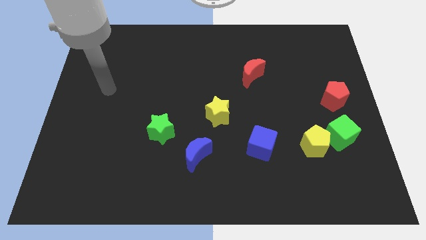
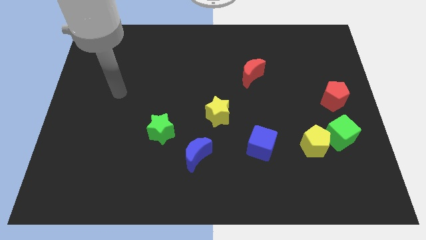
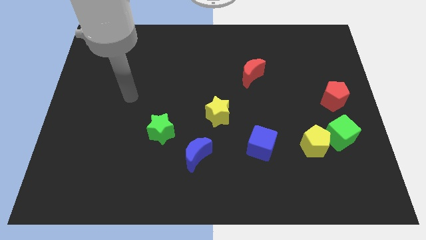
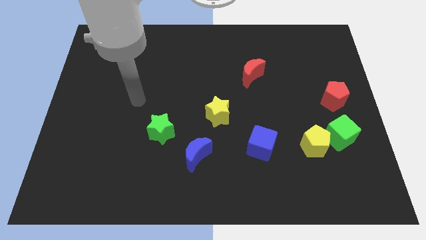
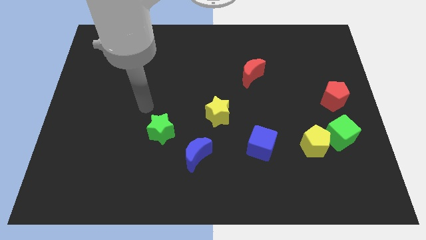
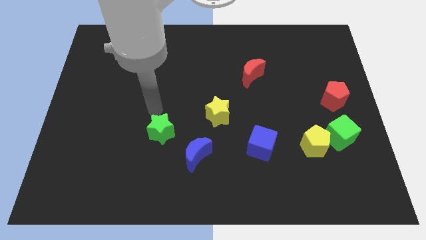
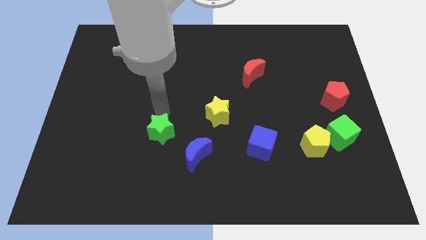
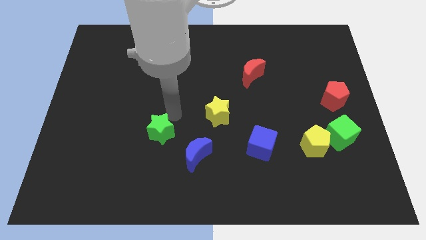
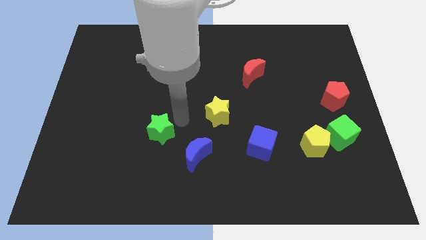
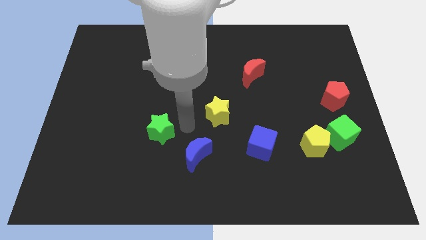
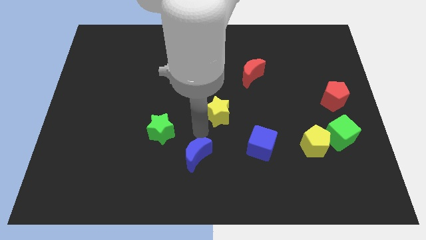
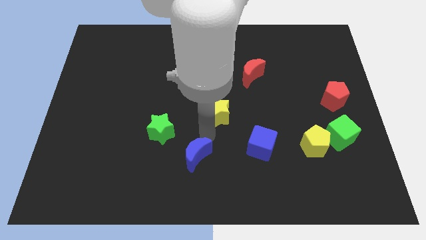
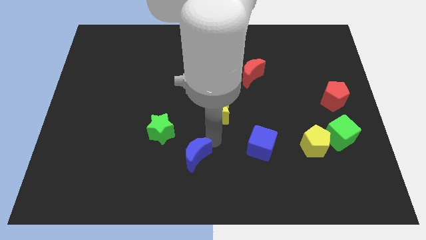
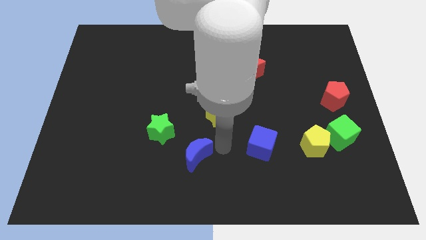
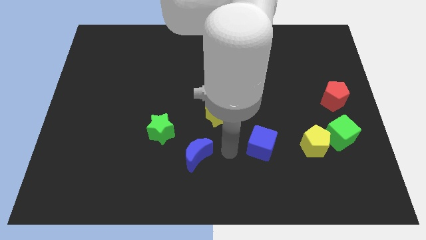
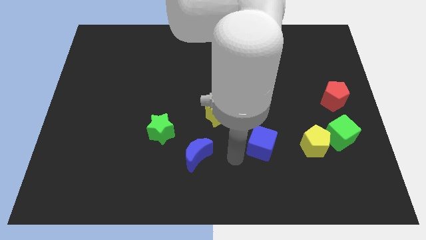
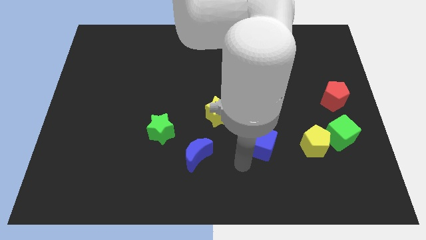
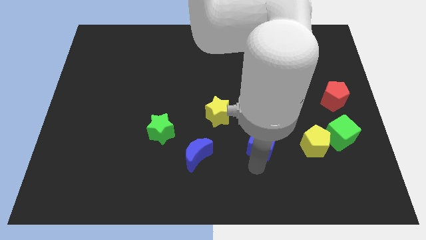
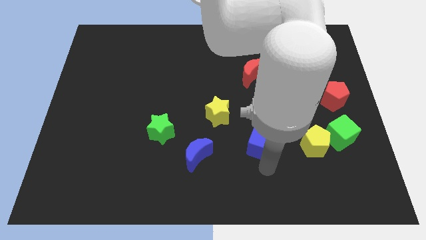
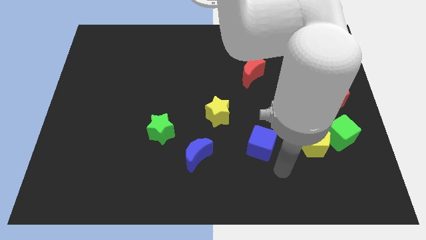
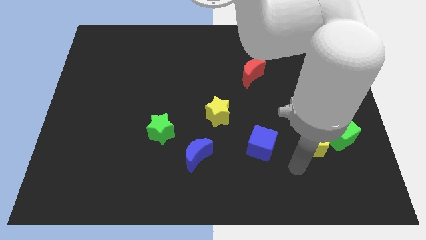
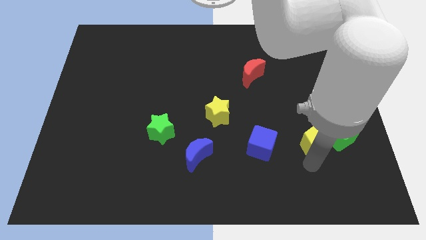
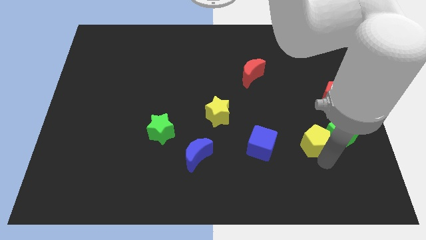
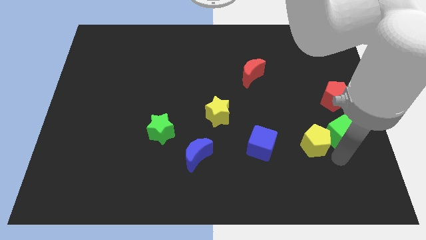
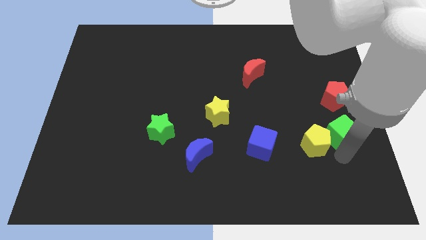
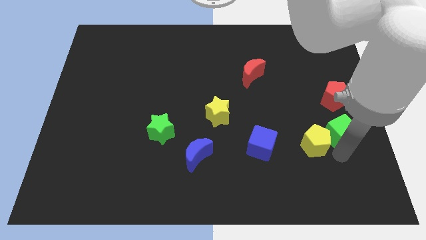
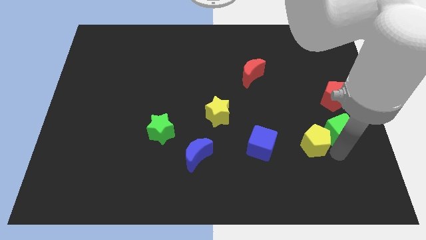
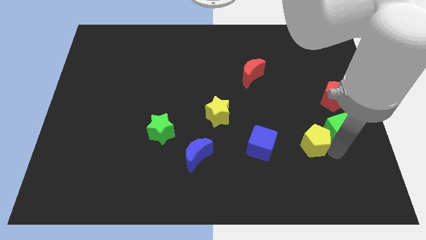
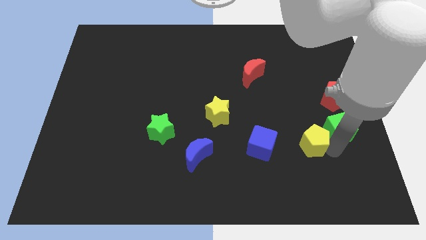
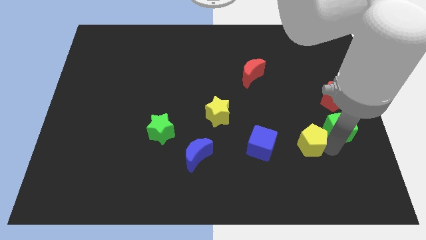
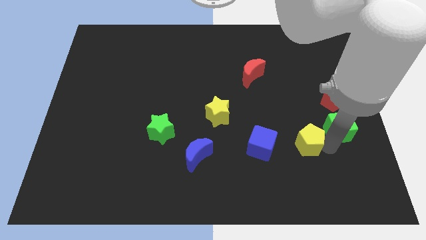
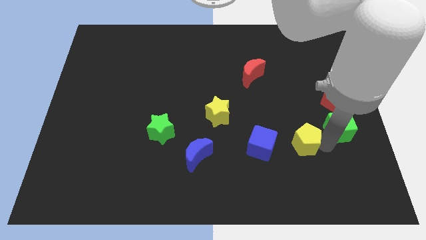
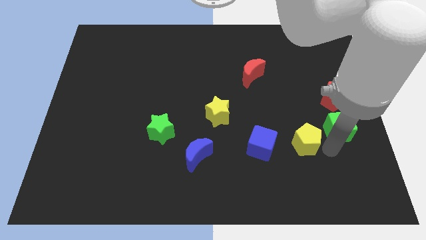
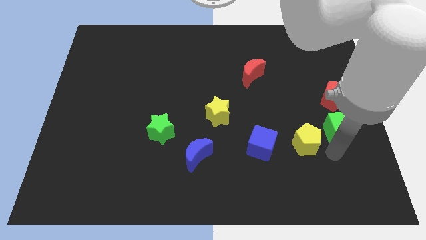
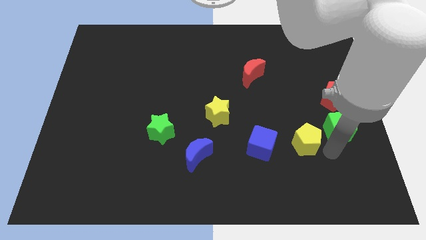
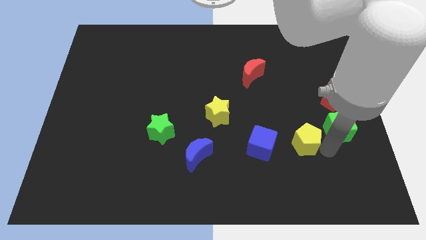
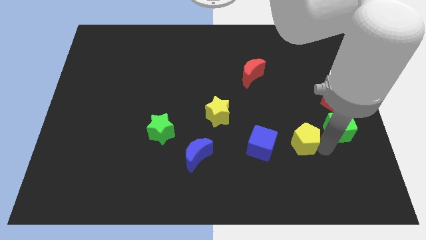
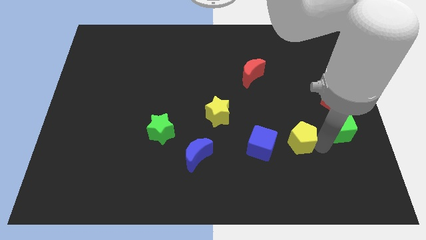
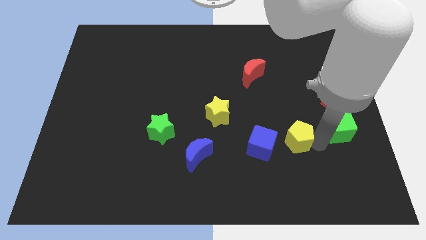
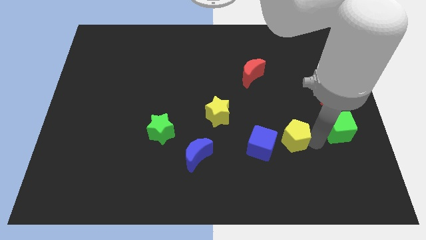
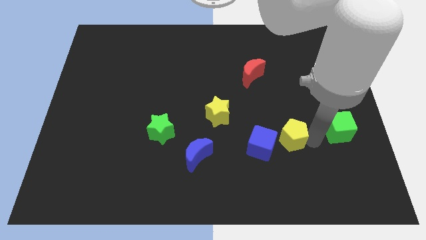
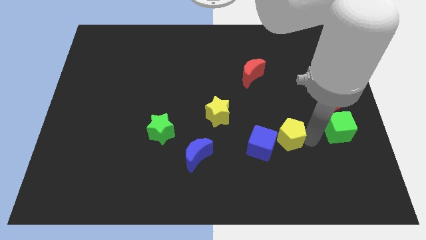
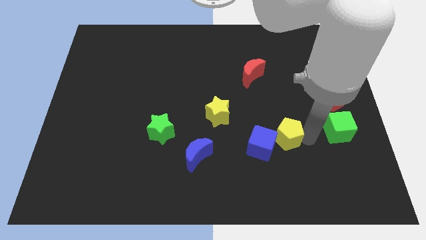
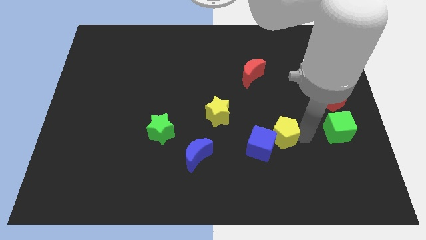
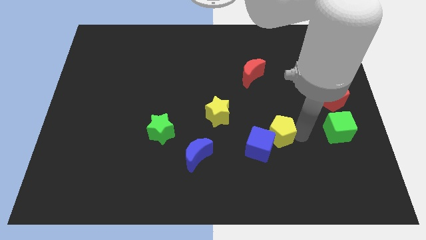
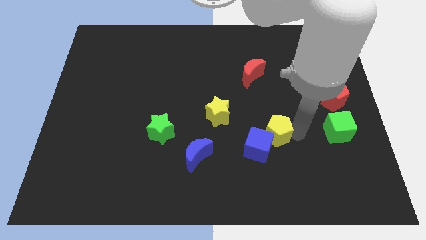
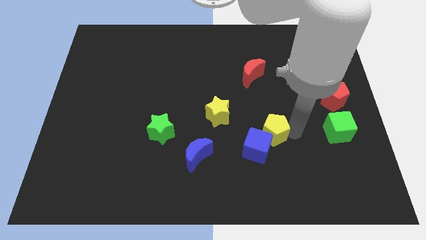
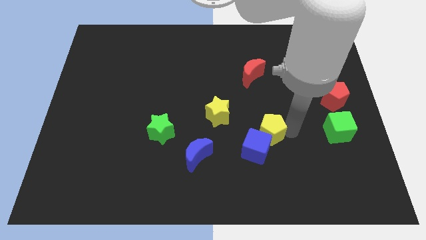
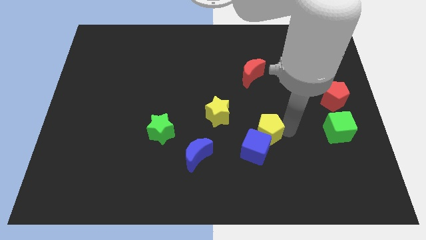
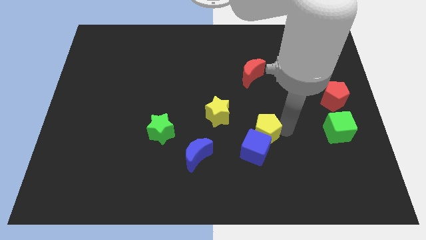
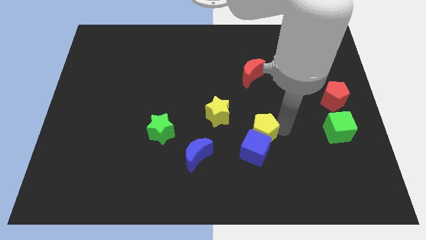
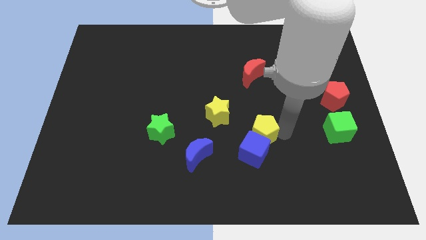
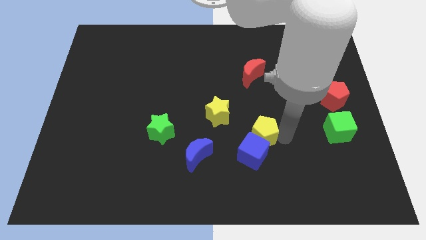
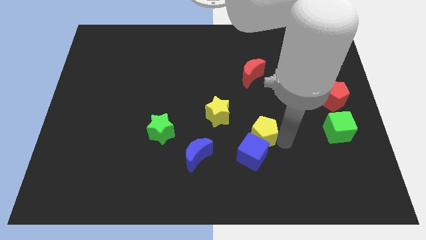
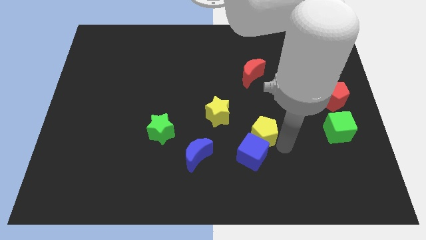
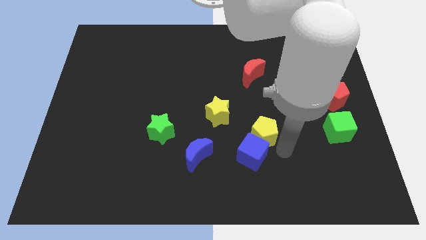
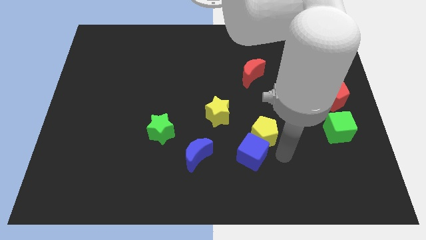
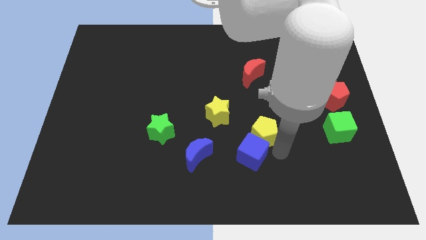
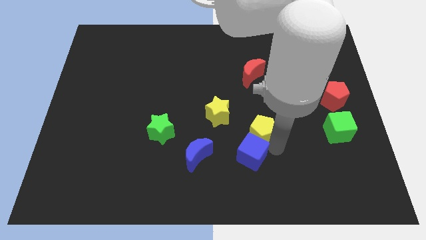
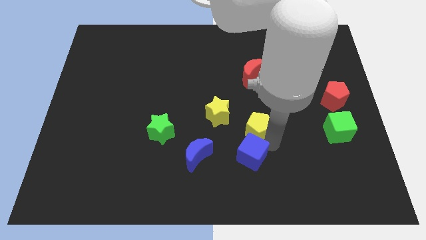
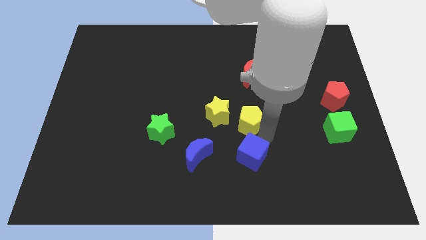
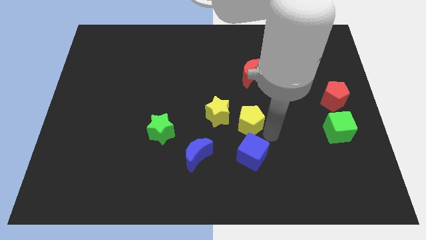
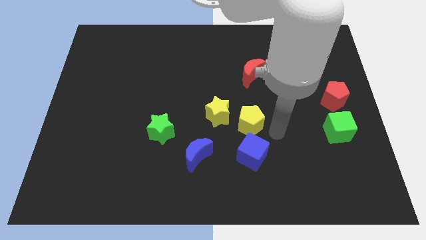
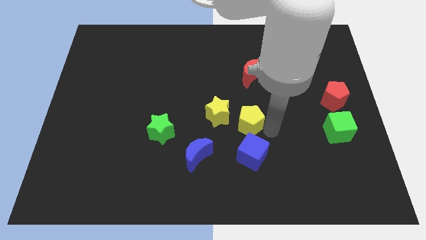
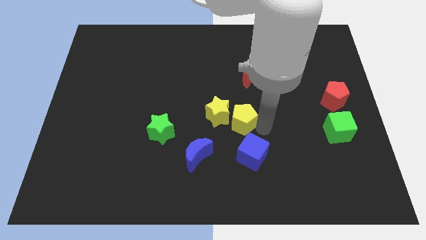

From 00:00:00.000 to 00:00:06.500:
push the yellow pentagon close to the yellow star

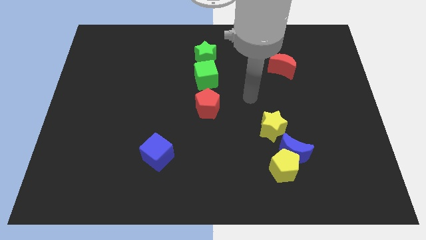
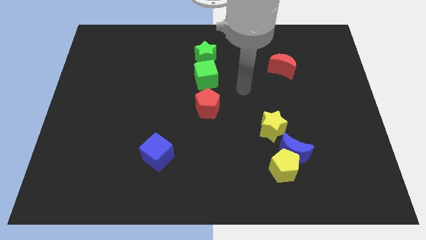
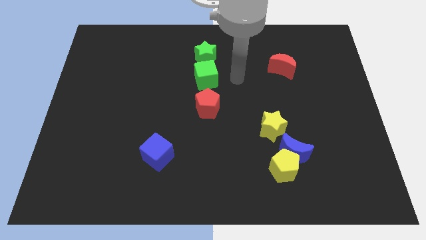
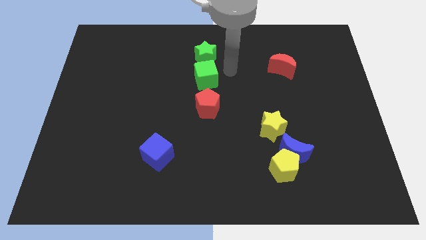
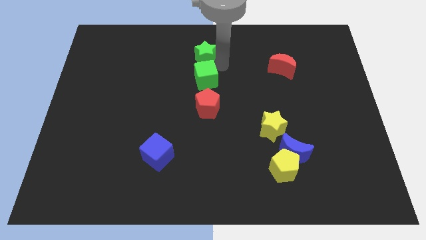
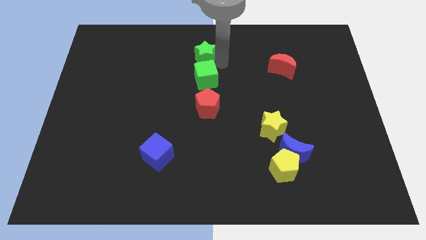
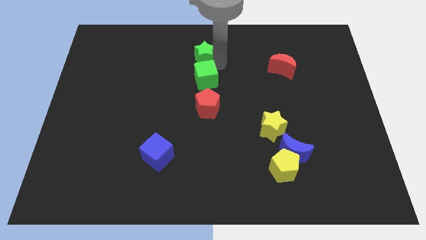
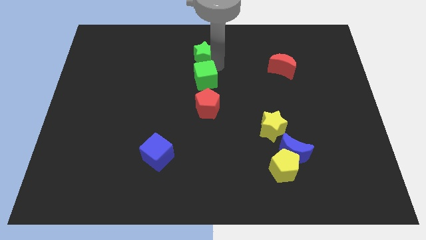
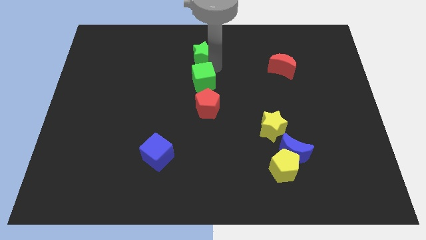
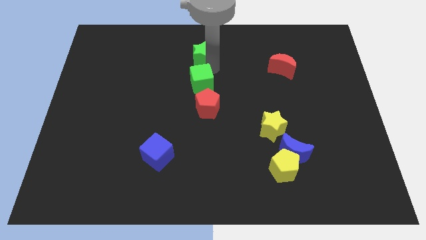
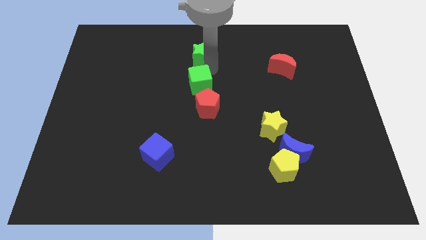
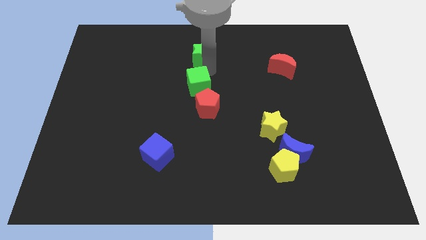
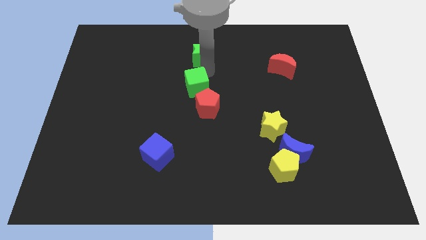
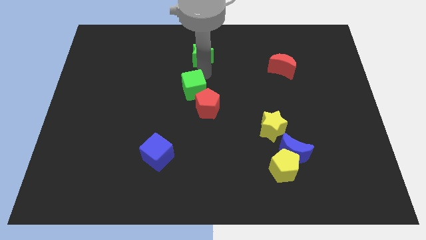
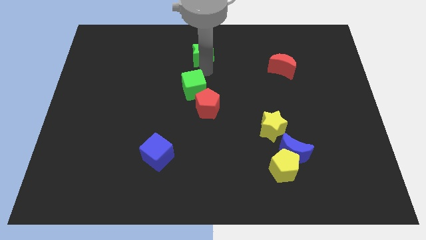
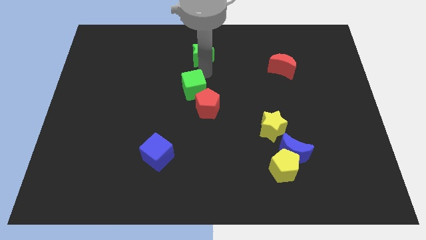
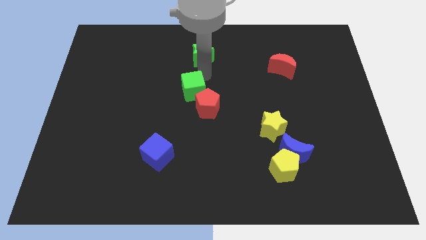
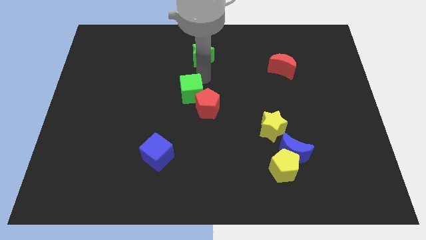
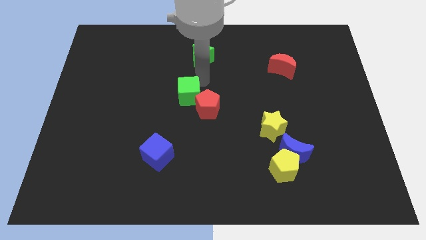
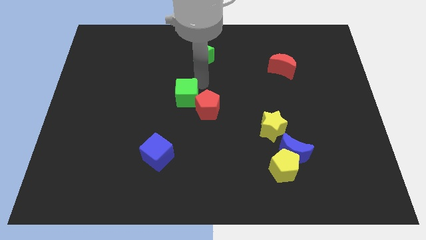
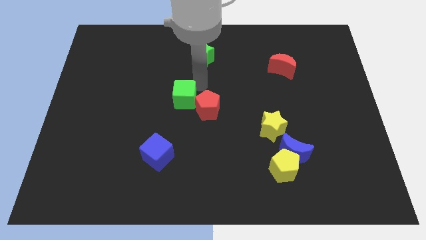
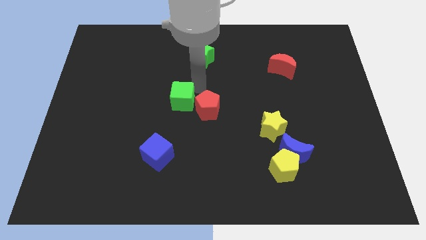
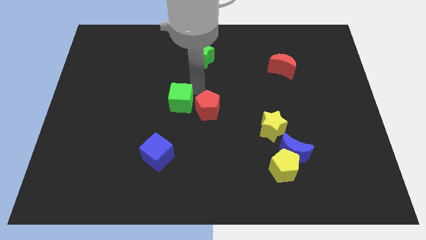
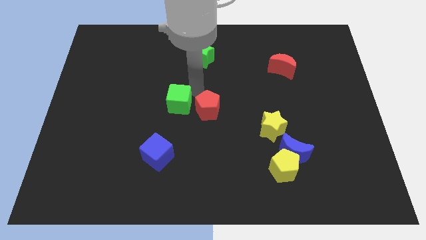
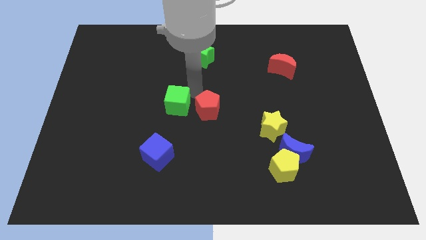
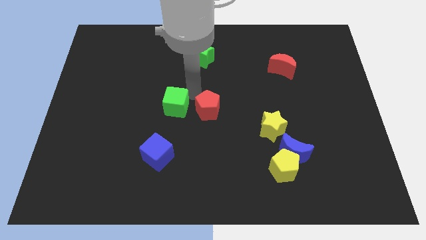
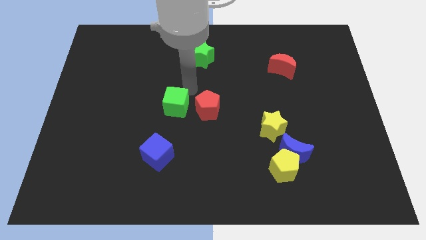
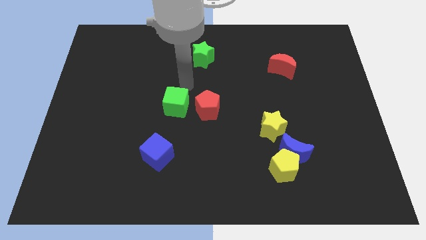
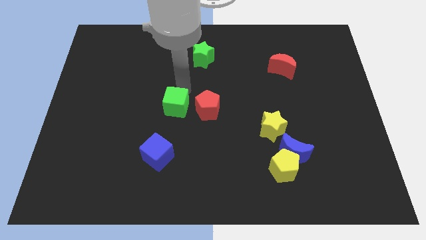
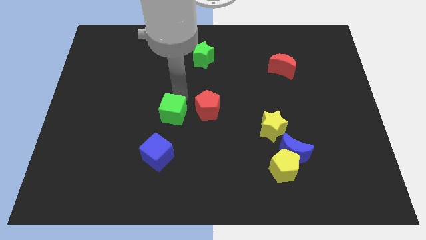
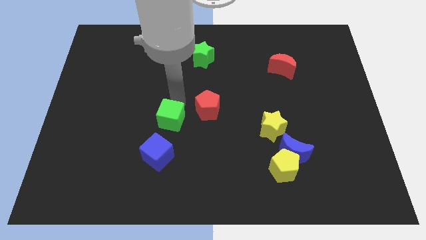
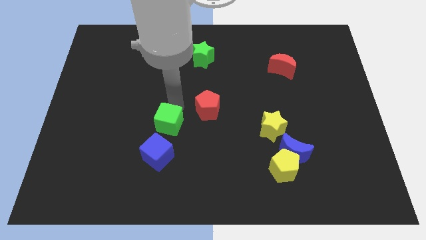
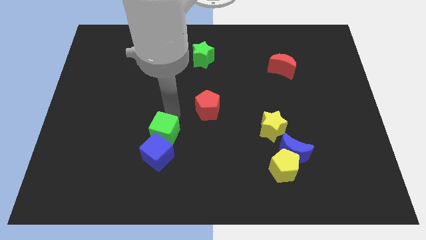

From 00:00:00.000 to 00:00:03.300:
move the green cube to the blue cube
